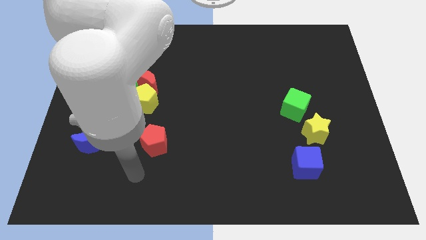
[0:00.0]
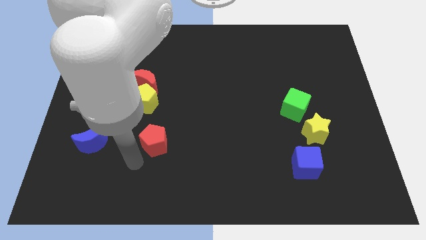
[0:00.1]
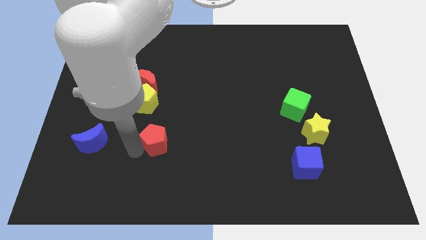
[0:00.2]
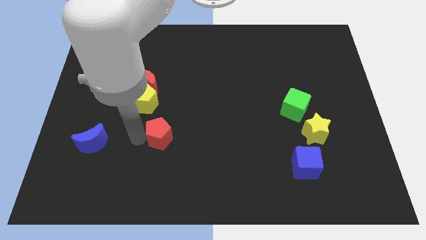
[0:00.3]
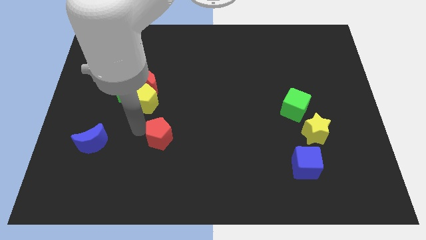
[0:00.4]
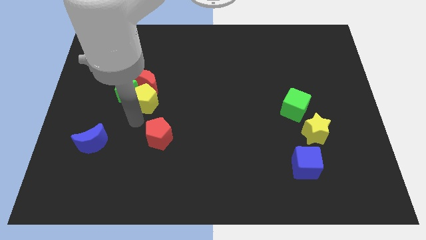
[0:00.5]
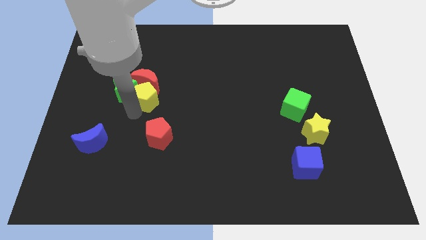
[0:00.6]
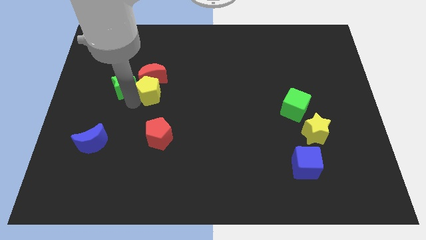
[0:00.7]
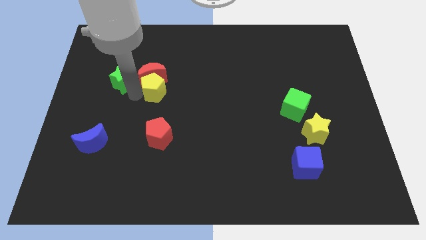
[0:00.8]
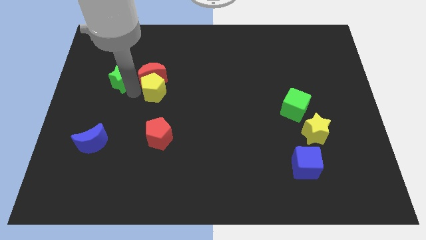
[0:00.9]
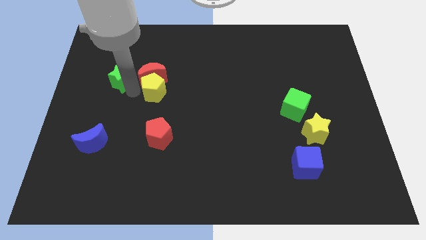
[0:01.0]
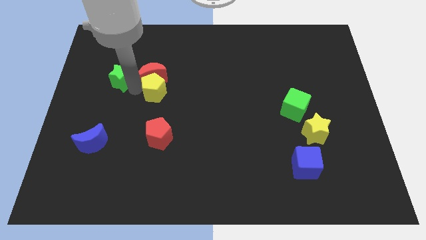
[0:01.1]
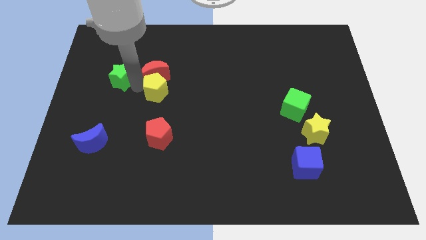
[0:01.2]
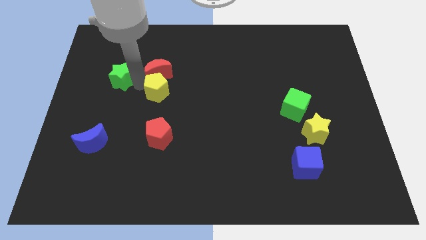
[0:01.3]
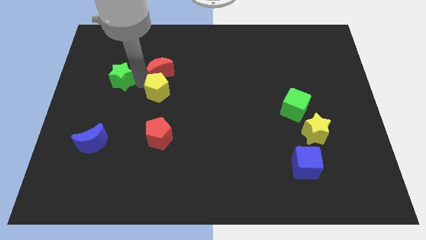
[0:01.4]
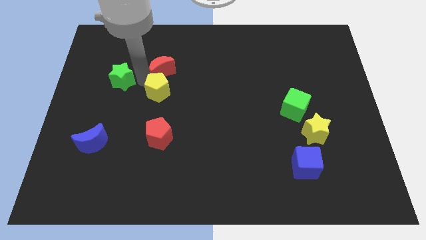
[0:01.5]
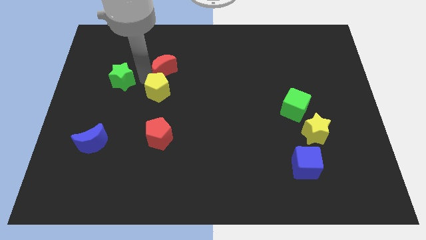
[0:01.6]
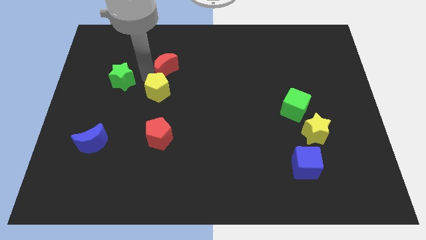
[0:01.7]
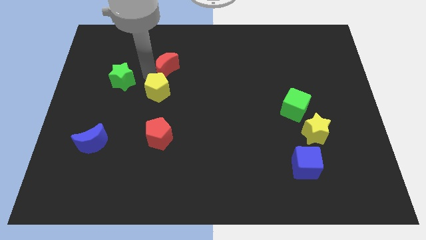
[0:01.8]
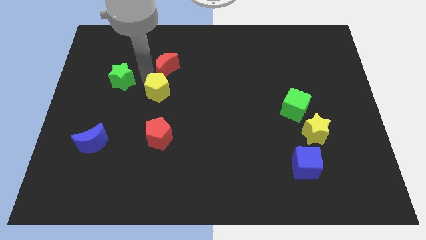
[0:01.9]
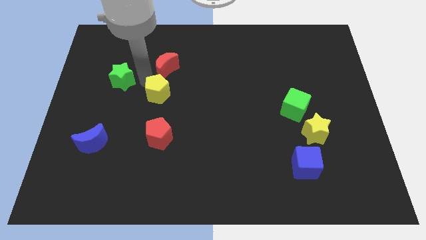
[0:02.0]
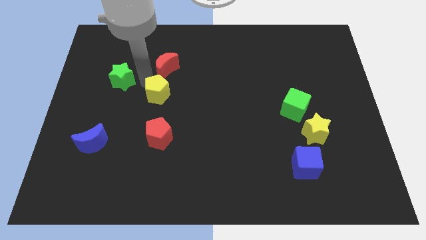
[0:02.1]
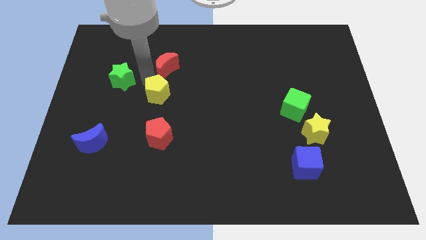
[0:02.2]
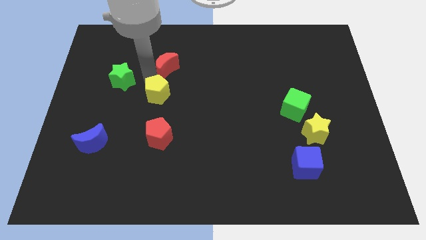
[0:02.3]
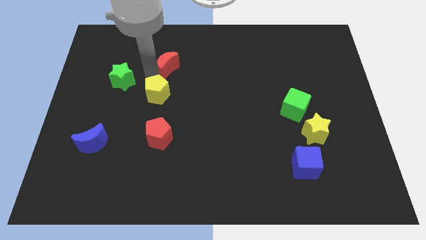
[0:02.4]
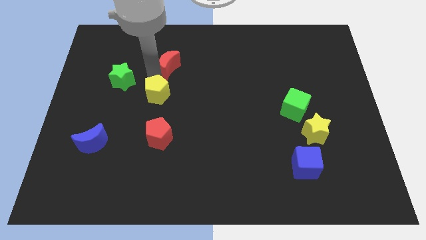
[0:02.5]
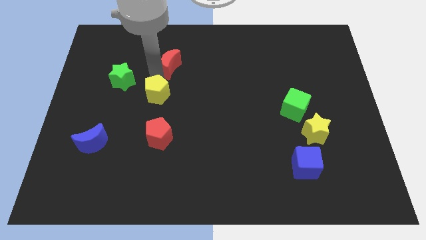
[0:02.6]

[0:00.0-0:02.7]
separate the red moon from the green star and yellow pentagon

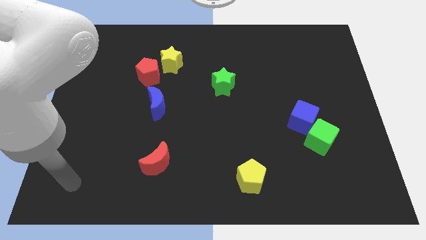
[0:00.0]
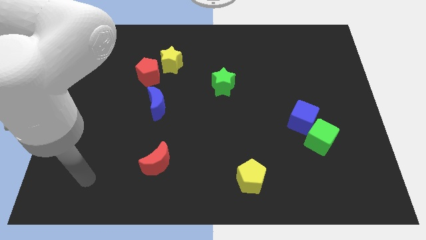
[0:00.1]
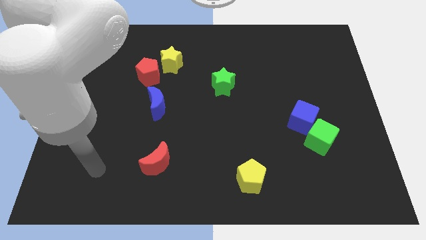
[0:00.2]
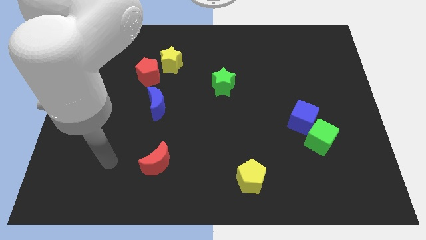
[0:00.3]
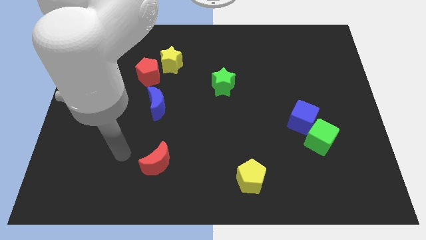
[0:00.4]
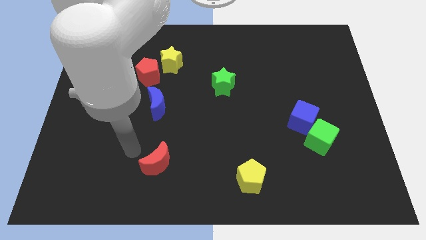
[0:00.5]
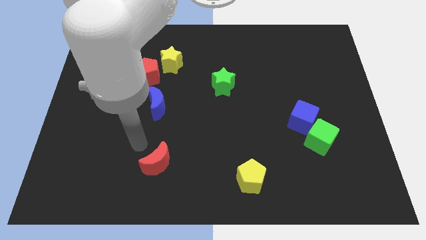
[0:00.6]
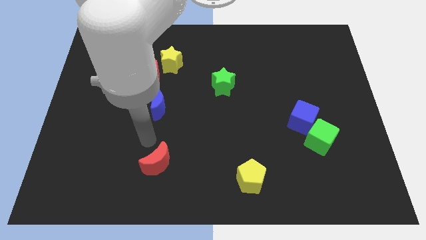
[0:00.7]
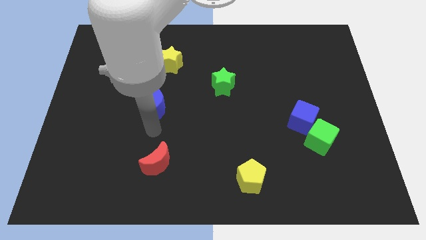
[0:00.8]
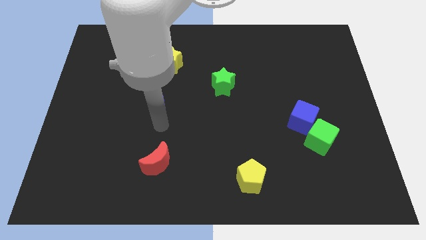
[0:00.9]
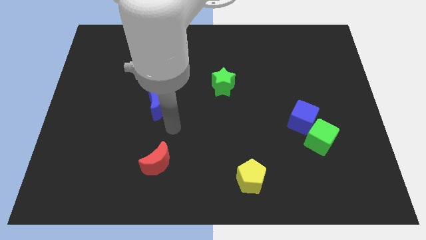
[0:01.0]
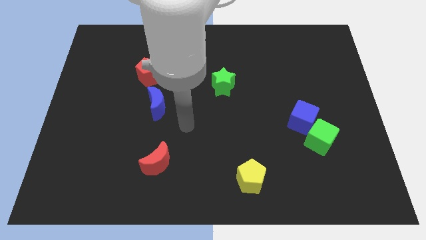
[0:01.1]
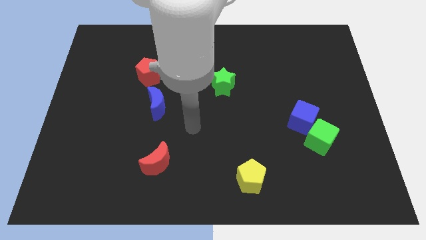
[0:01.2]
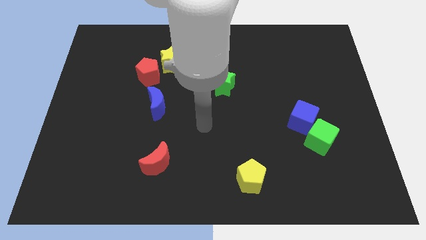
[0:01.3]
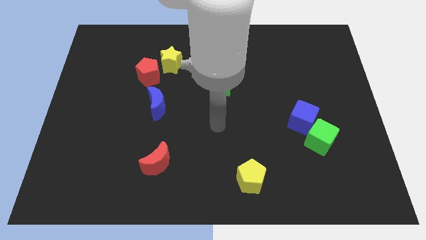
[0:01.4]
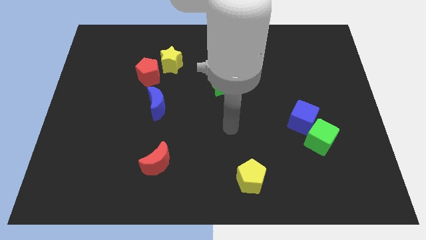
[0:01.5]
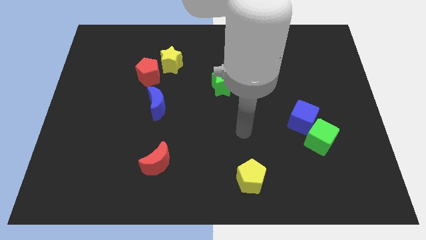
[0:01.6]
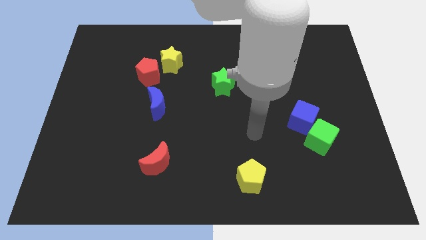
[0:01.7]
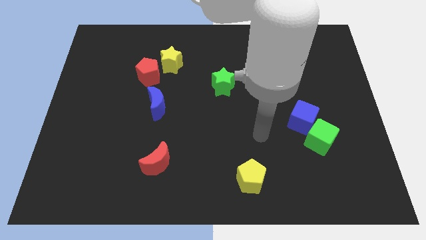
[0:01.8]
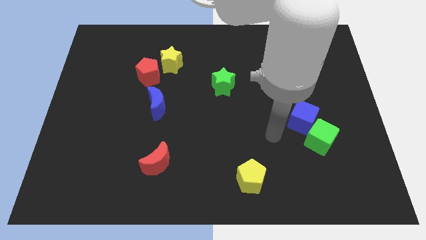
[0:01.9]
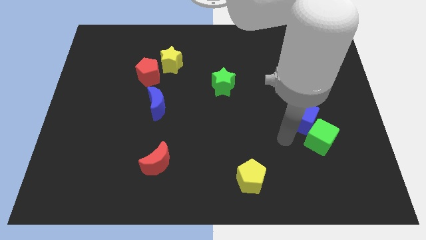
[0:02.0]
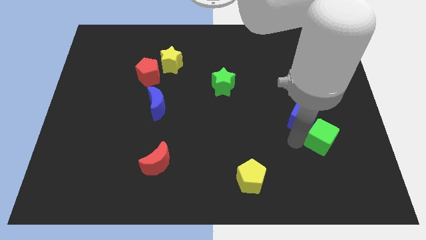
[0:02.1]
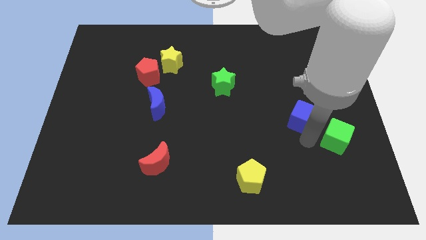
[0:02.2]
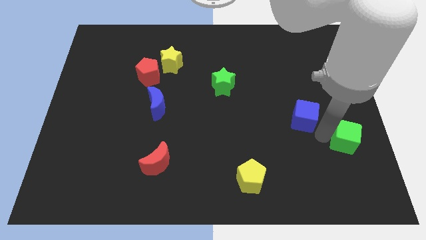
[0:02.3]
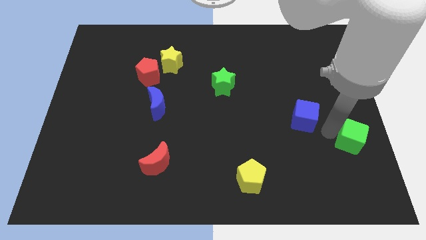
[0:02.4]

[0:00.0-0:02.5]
pull the blue cube apart from the green cube

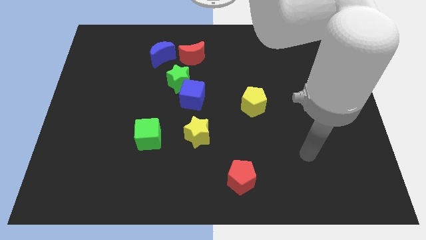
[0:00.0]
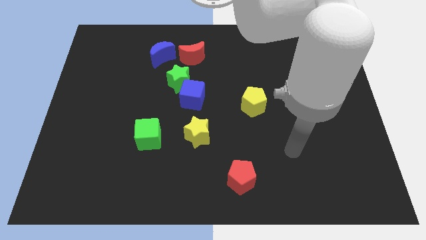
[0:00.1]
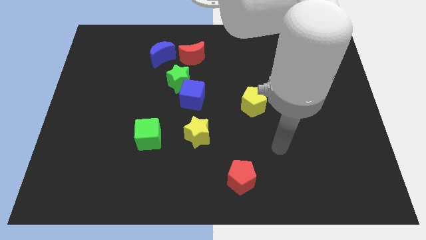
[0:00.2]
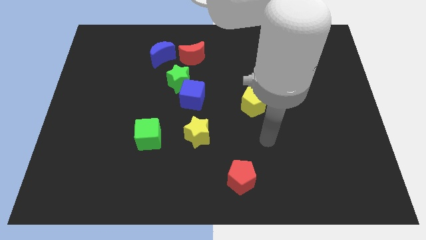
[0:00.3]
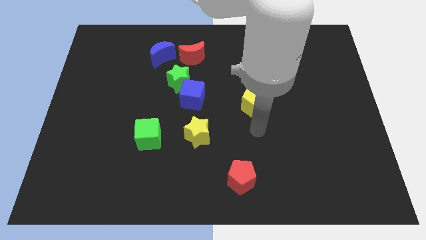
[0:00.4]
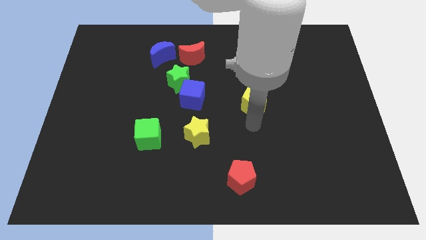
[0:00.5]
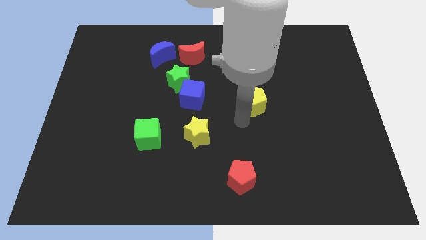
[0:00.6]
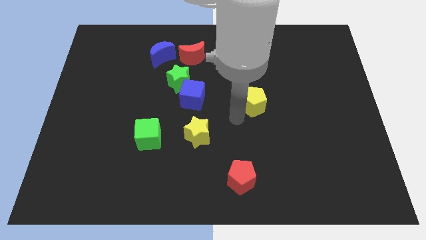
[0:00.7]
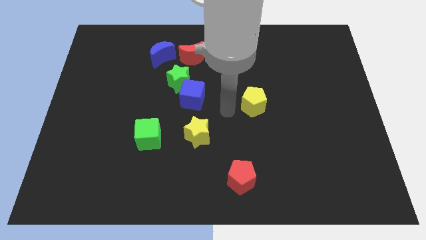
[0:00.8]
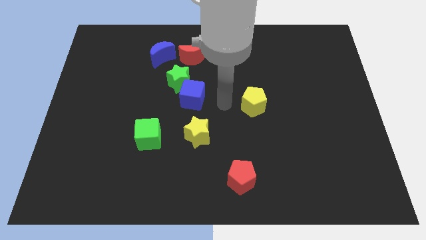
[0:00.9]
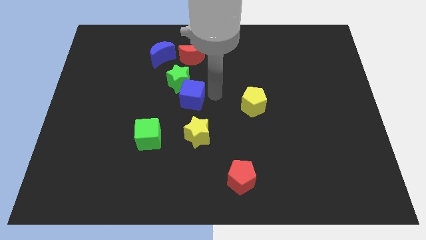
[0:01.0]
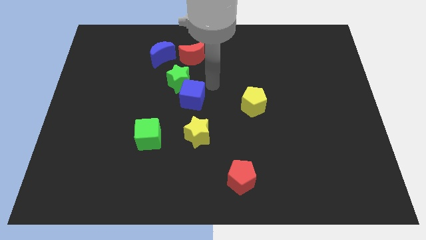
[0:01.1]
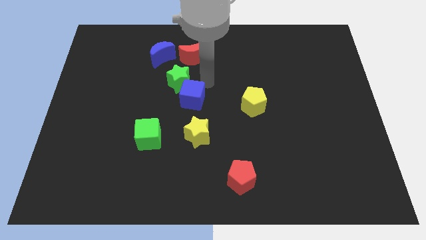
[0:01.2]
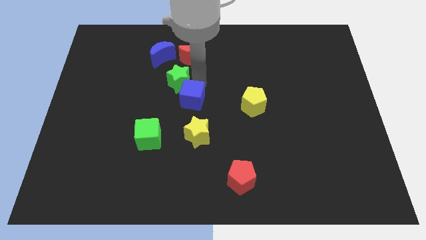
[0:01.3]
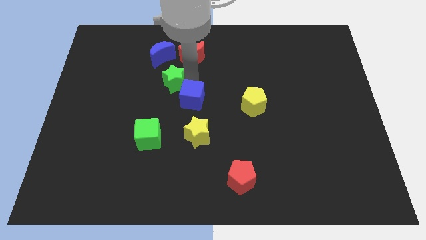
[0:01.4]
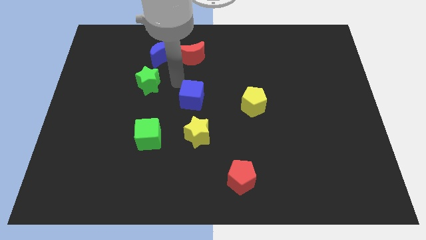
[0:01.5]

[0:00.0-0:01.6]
move the blue cube away from the green star

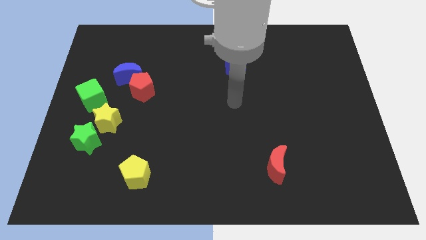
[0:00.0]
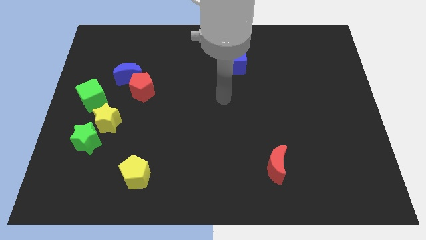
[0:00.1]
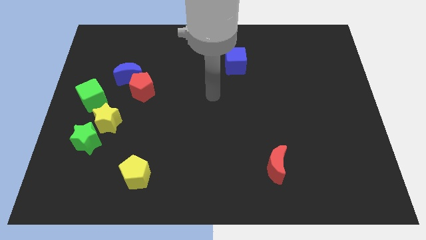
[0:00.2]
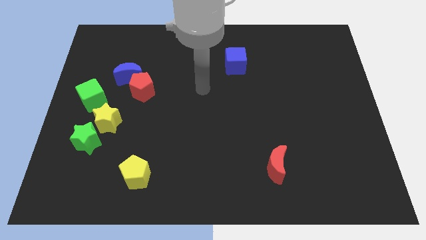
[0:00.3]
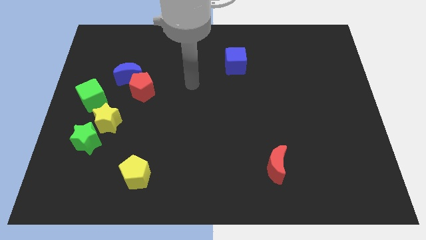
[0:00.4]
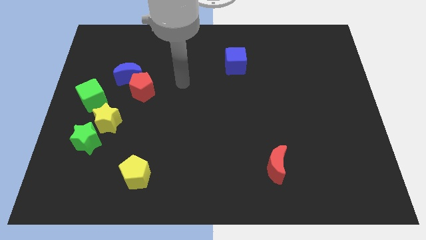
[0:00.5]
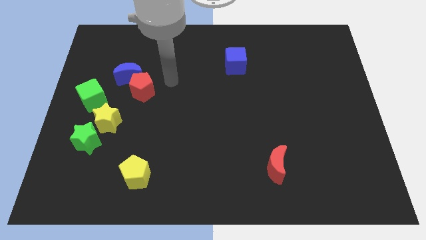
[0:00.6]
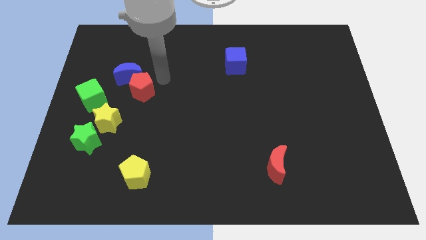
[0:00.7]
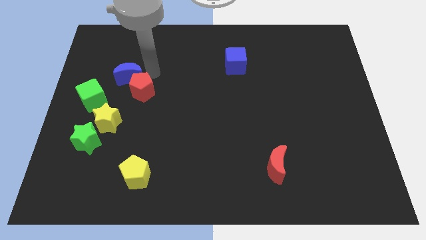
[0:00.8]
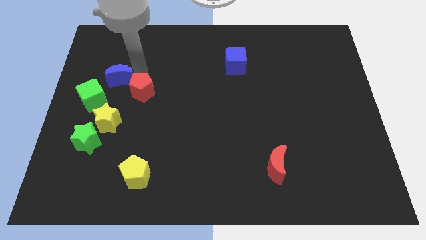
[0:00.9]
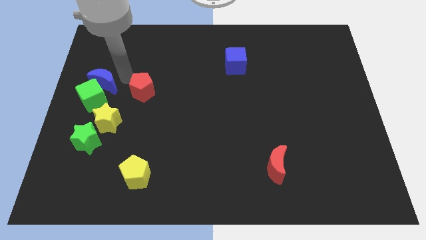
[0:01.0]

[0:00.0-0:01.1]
move the red pentagon away from the blue moon

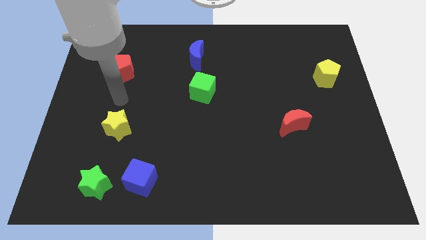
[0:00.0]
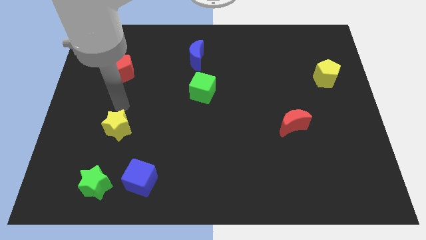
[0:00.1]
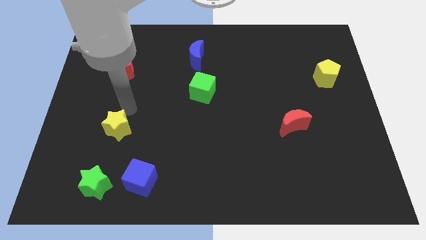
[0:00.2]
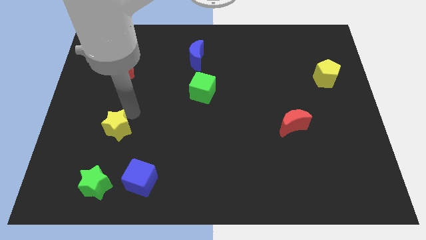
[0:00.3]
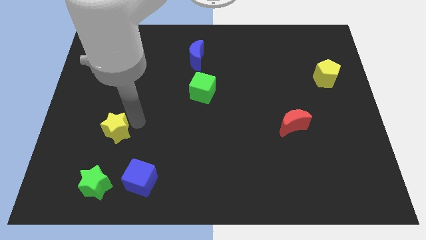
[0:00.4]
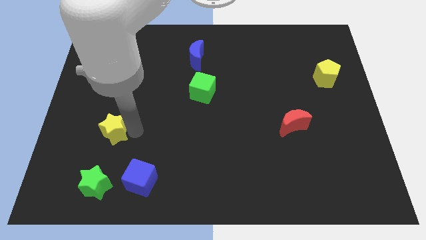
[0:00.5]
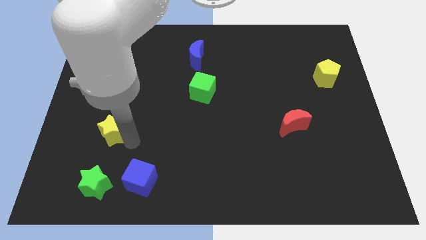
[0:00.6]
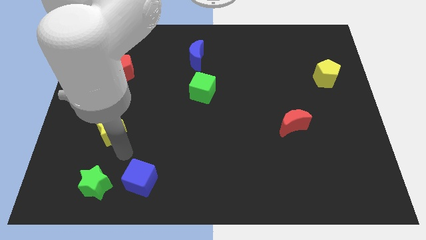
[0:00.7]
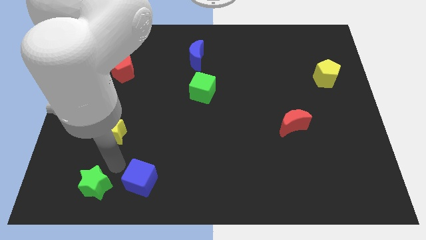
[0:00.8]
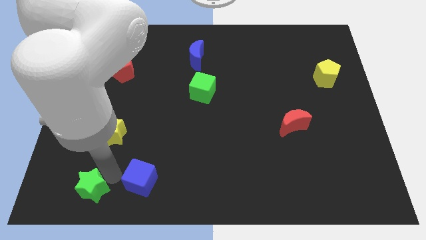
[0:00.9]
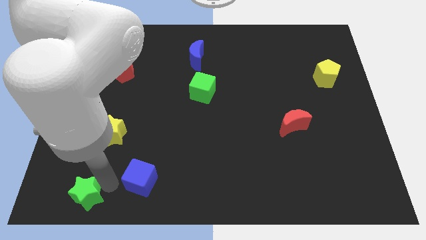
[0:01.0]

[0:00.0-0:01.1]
separate the blue cube from the green star

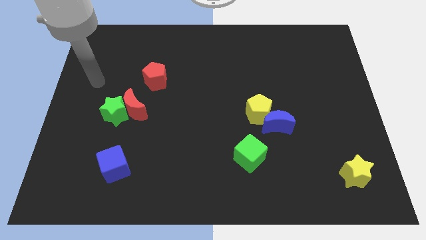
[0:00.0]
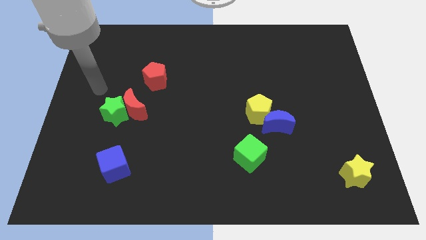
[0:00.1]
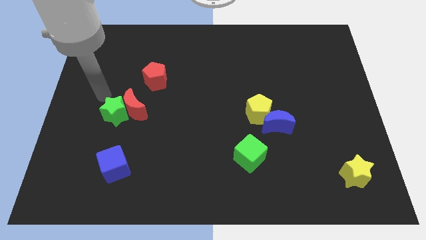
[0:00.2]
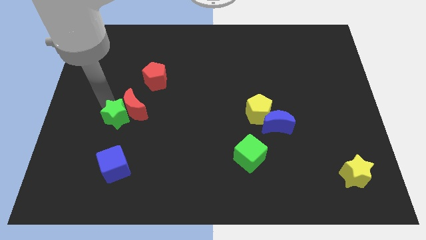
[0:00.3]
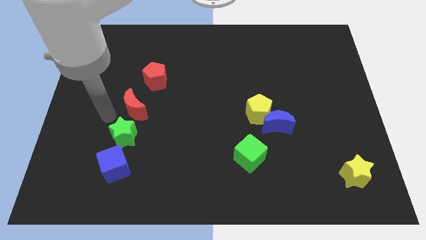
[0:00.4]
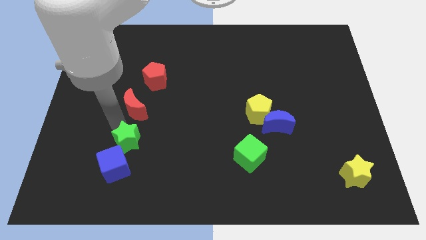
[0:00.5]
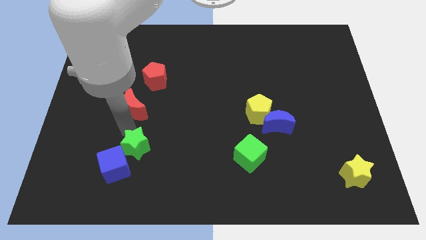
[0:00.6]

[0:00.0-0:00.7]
pull the red moon apart from the green star
